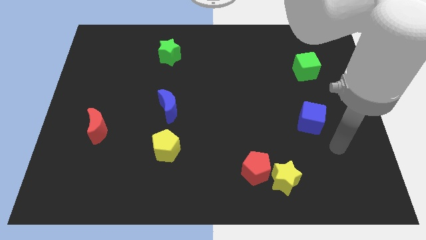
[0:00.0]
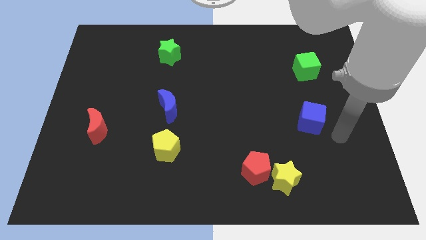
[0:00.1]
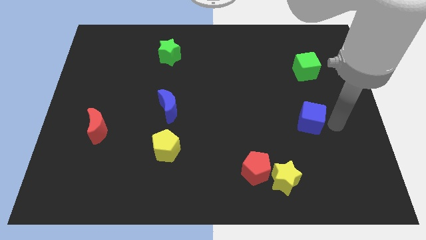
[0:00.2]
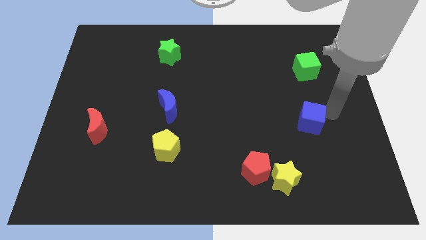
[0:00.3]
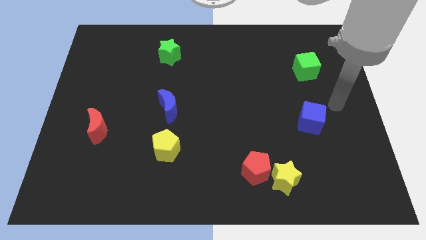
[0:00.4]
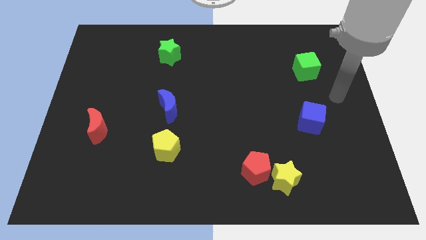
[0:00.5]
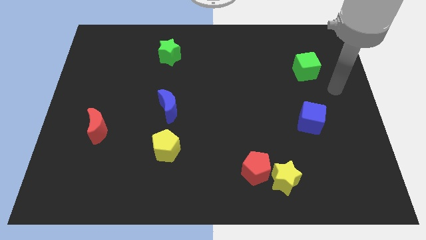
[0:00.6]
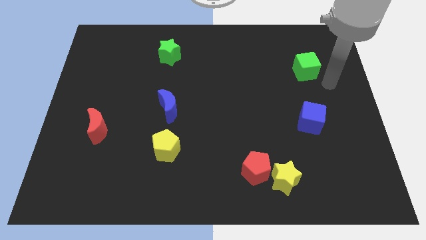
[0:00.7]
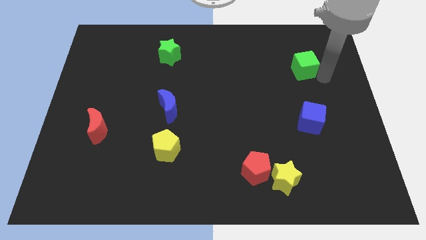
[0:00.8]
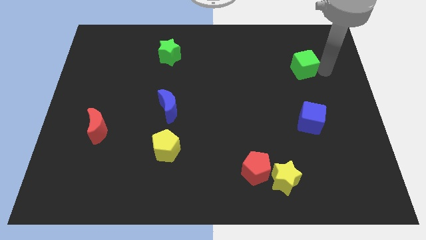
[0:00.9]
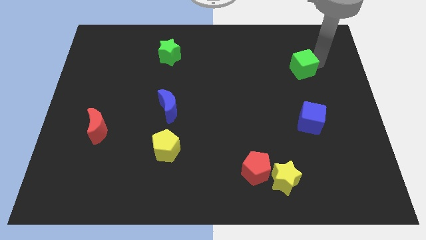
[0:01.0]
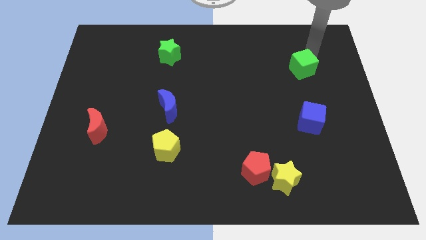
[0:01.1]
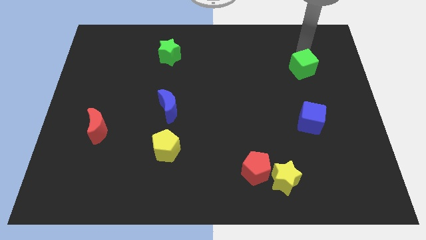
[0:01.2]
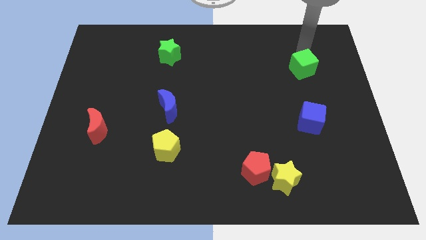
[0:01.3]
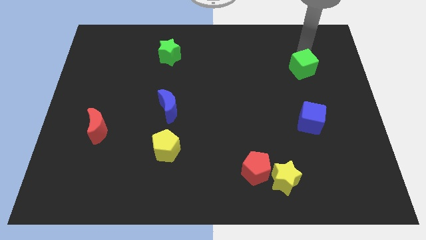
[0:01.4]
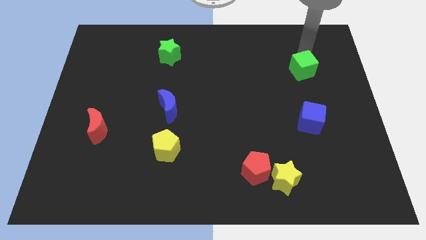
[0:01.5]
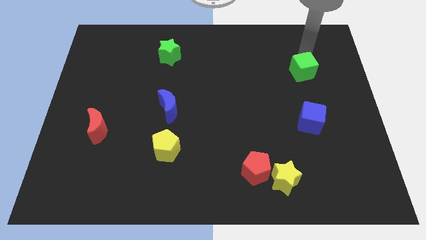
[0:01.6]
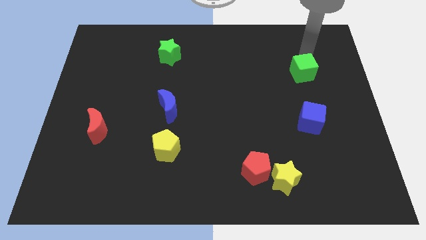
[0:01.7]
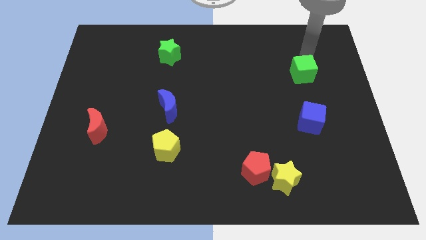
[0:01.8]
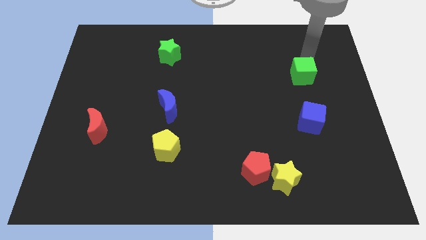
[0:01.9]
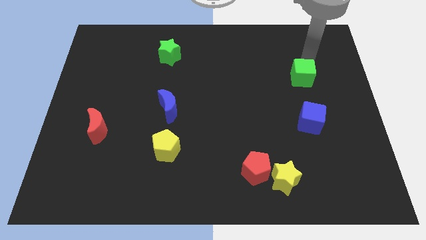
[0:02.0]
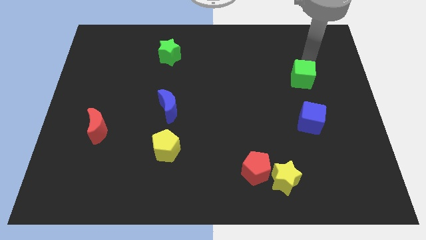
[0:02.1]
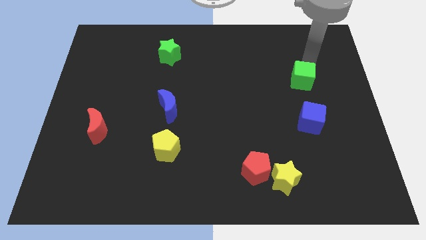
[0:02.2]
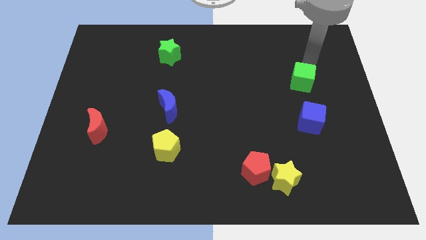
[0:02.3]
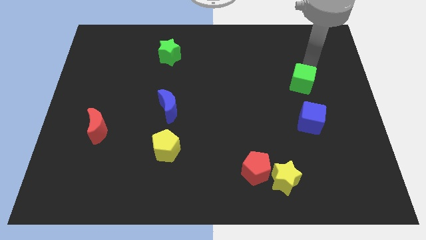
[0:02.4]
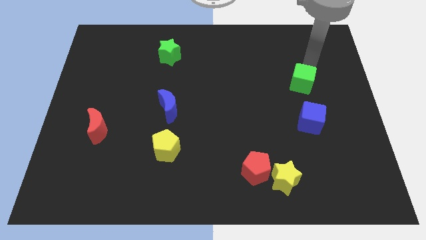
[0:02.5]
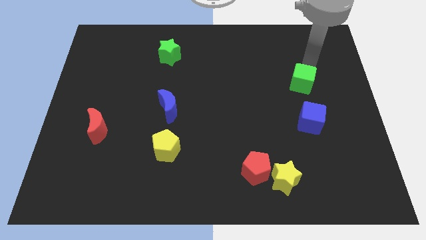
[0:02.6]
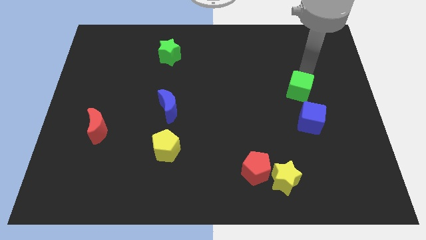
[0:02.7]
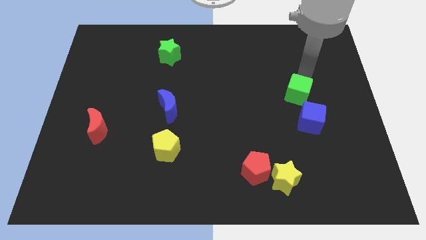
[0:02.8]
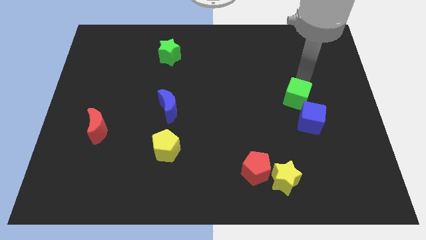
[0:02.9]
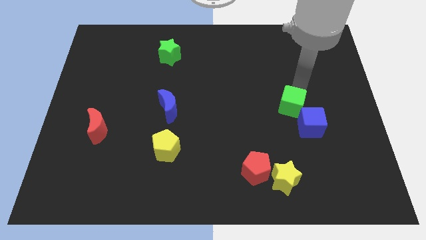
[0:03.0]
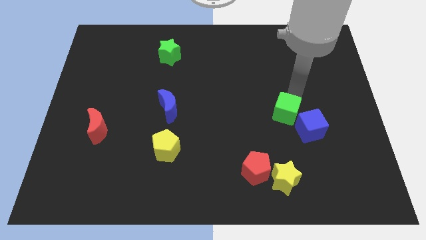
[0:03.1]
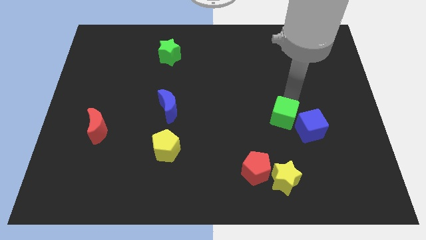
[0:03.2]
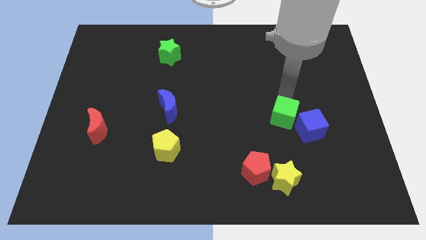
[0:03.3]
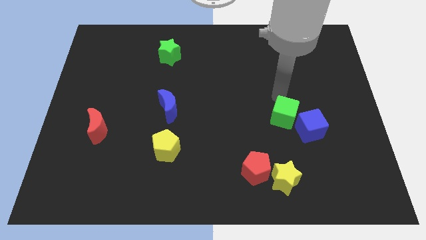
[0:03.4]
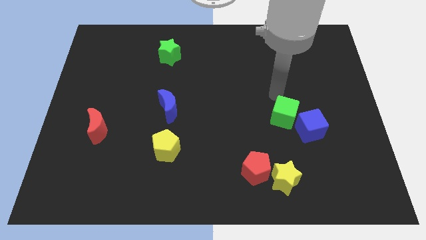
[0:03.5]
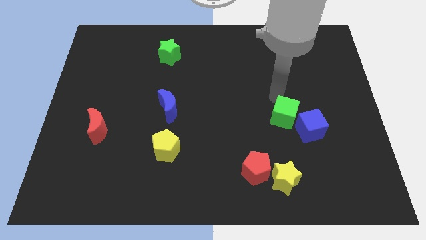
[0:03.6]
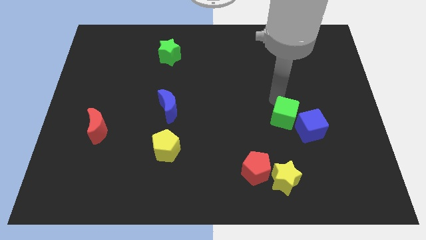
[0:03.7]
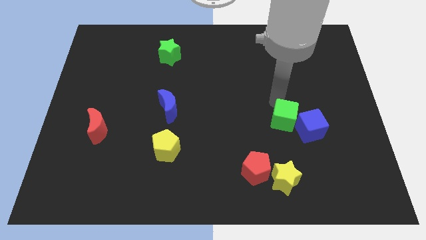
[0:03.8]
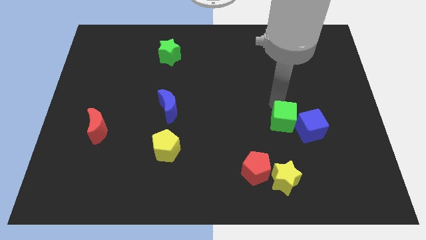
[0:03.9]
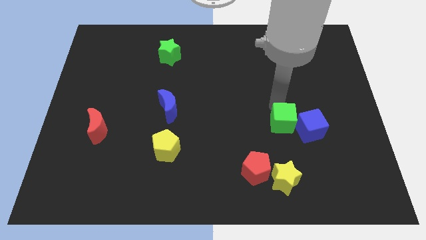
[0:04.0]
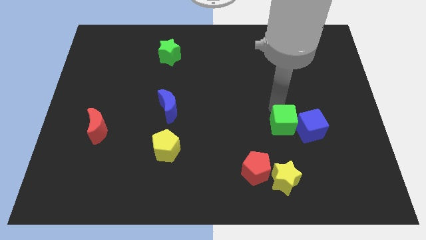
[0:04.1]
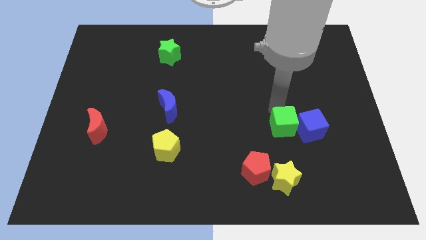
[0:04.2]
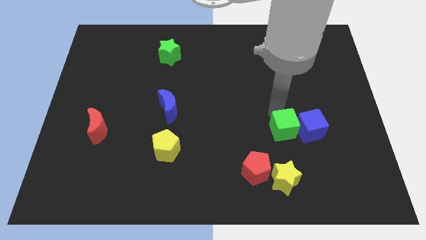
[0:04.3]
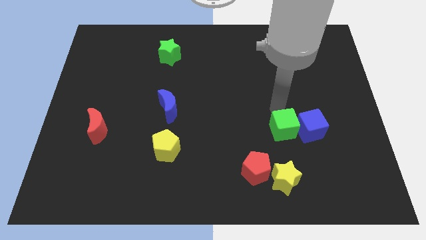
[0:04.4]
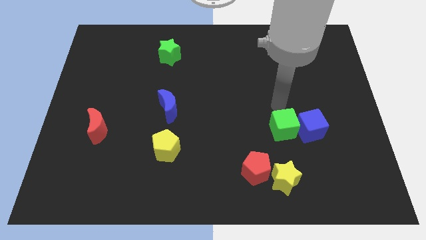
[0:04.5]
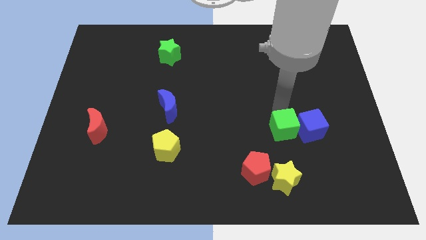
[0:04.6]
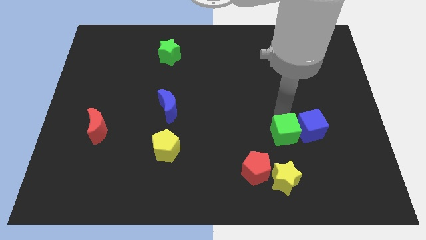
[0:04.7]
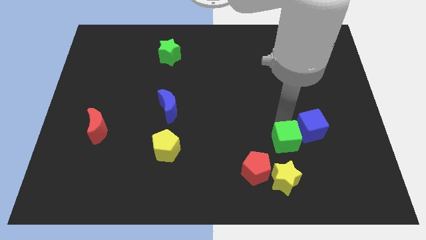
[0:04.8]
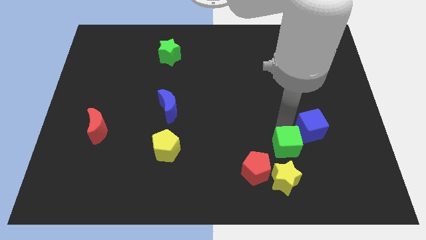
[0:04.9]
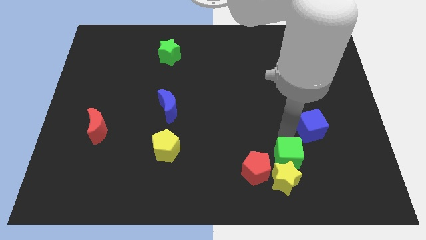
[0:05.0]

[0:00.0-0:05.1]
slide the green cube close to the yellow star

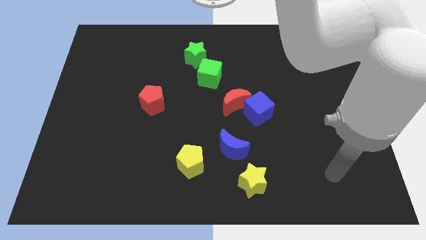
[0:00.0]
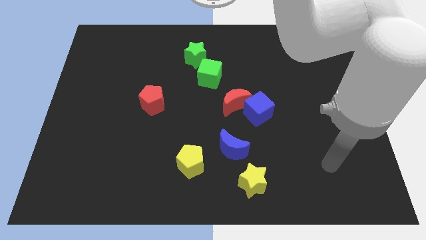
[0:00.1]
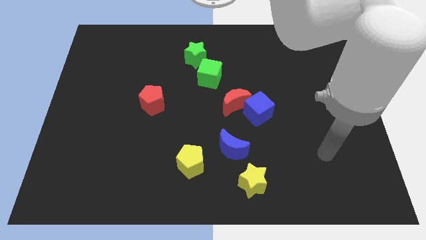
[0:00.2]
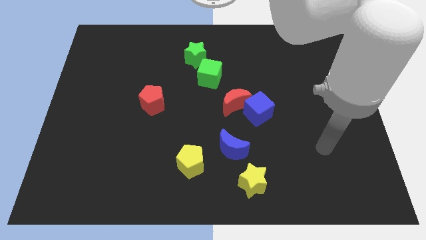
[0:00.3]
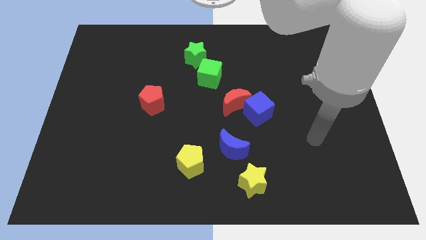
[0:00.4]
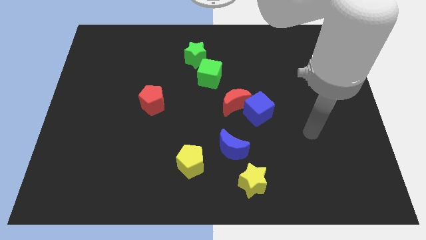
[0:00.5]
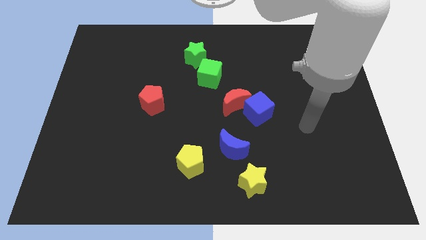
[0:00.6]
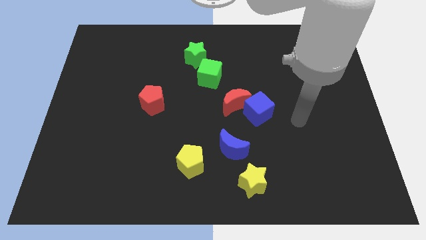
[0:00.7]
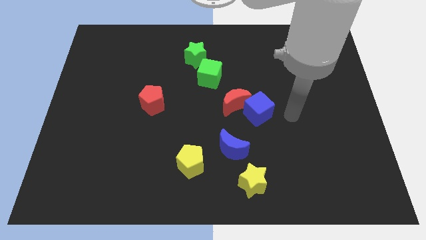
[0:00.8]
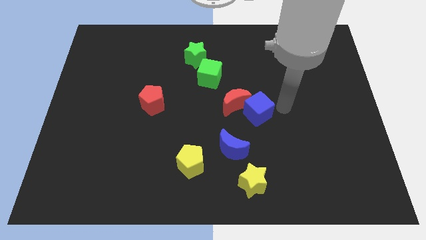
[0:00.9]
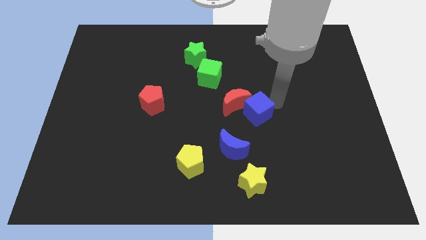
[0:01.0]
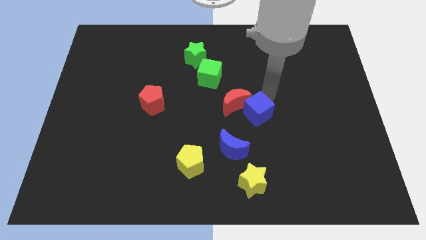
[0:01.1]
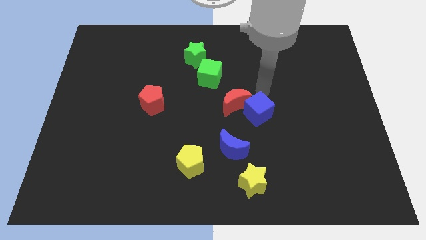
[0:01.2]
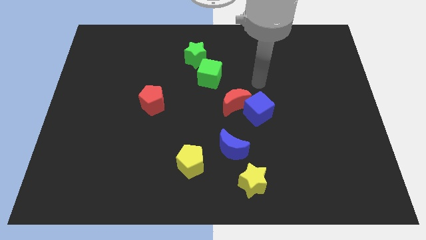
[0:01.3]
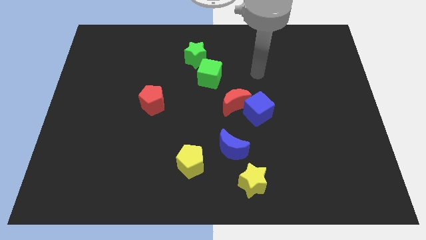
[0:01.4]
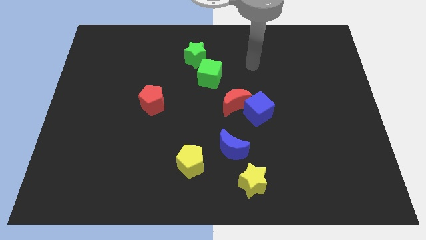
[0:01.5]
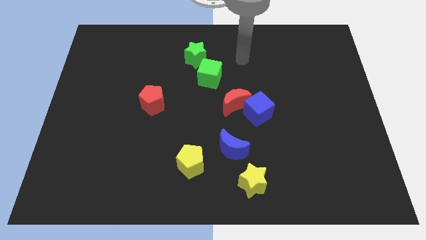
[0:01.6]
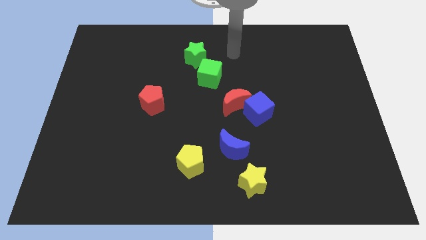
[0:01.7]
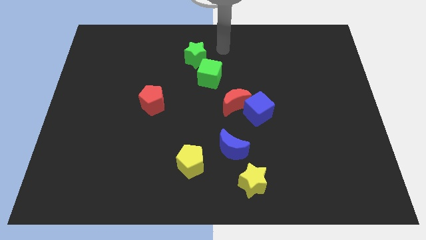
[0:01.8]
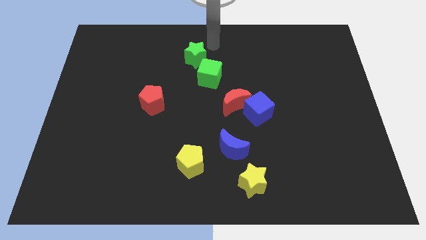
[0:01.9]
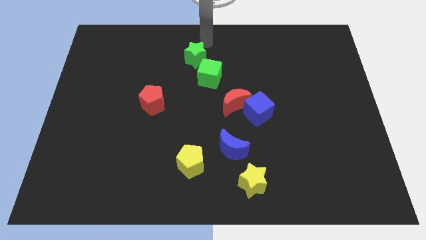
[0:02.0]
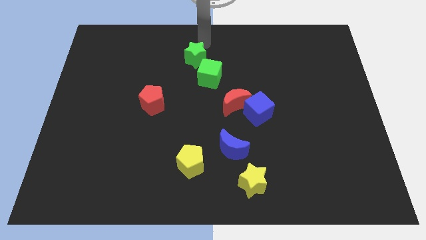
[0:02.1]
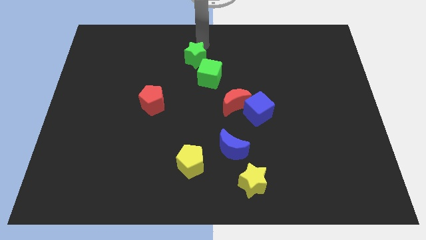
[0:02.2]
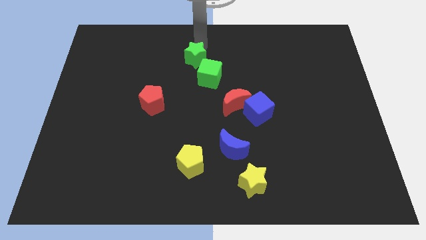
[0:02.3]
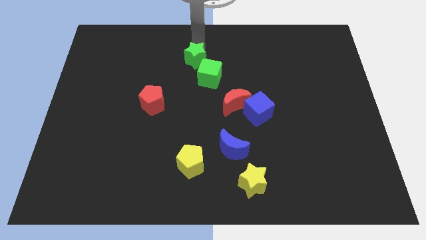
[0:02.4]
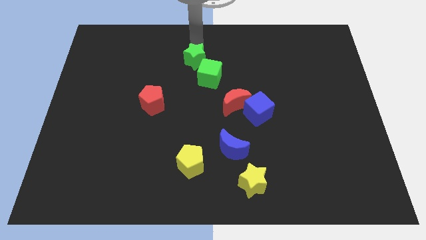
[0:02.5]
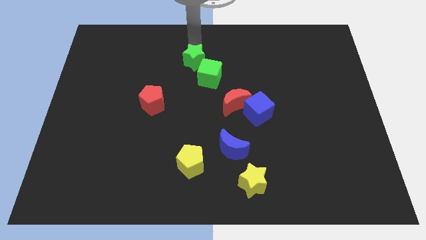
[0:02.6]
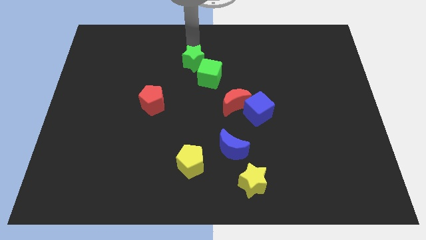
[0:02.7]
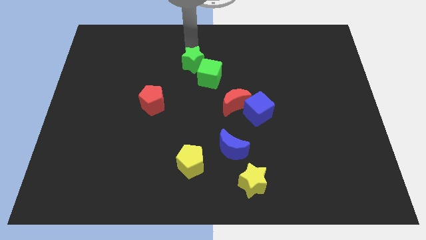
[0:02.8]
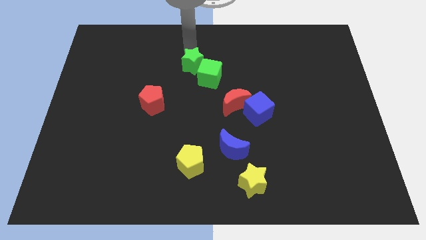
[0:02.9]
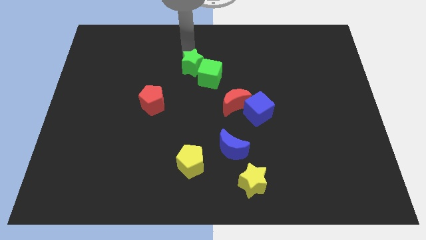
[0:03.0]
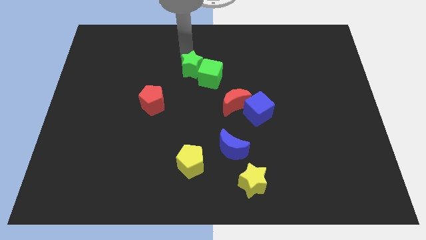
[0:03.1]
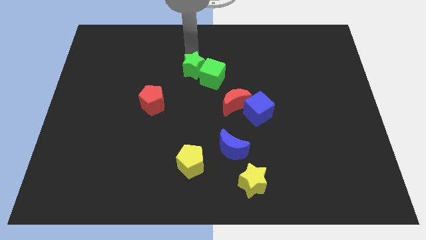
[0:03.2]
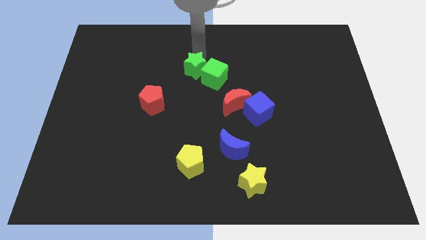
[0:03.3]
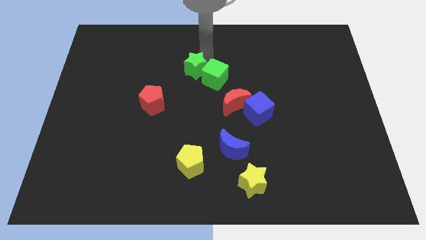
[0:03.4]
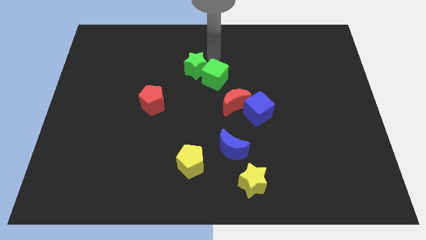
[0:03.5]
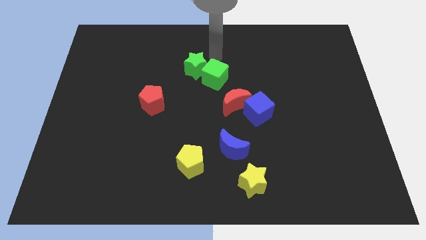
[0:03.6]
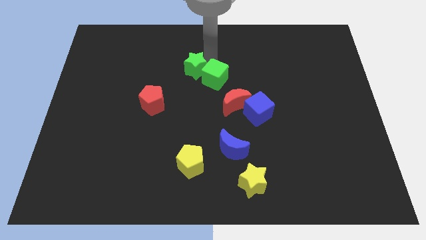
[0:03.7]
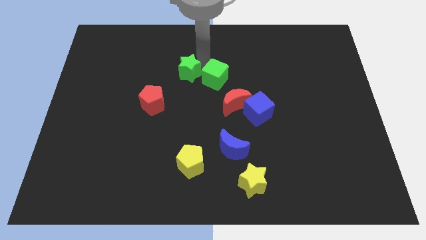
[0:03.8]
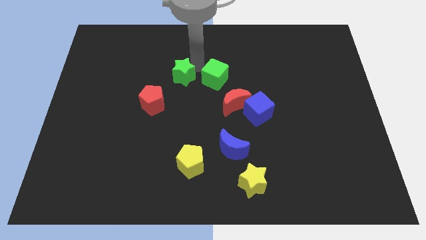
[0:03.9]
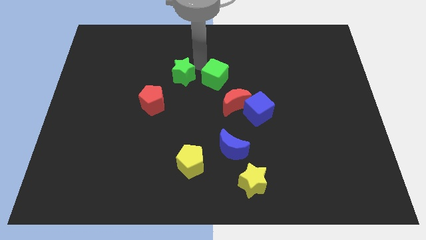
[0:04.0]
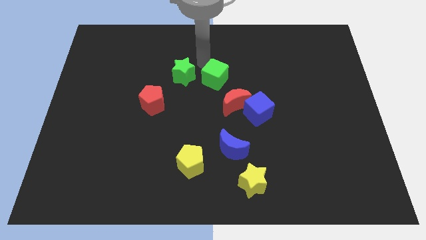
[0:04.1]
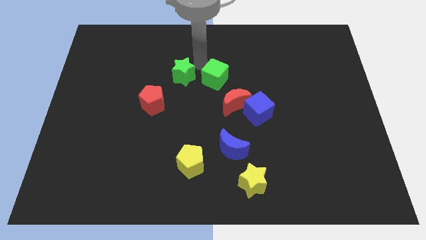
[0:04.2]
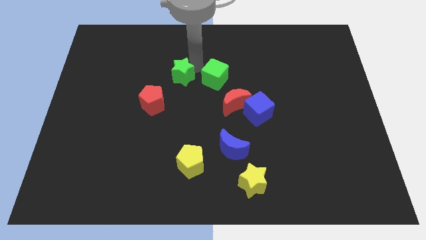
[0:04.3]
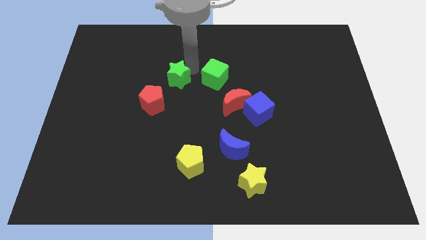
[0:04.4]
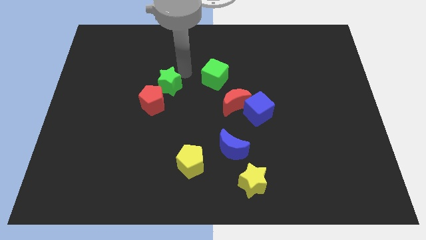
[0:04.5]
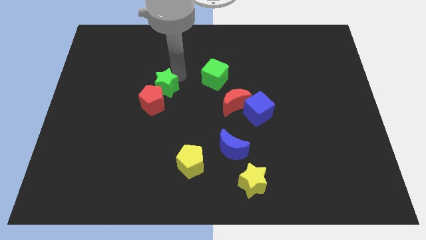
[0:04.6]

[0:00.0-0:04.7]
push the green star close to the red pentagon
